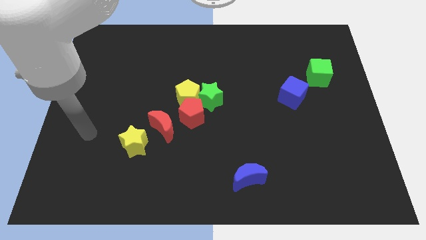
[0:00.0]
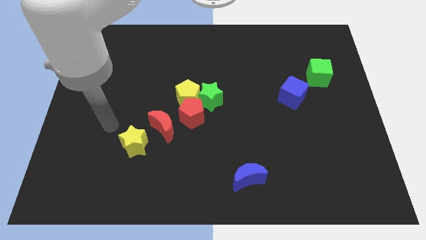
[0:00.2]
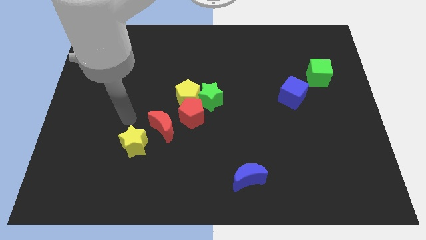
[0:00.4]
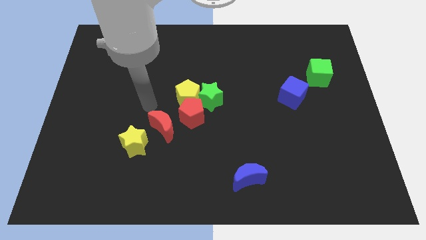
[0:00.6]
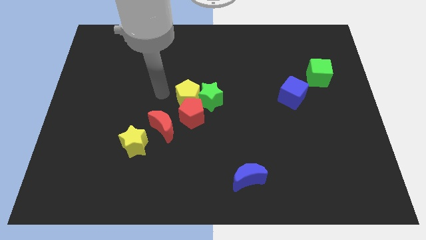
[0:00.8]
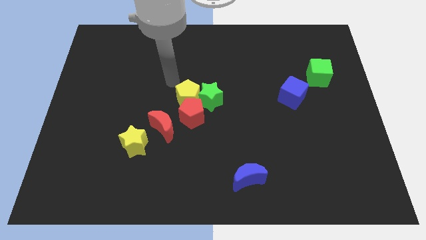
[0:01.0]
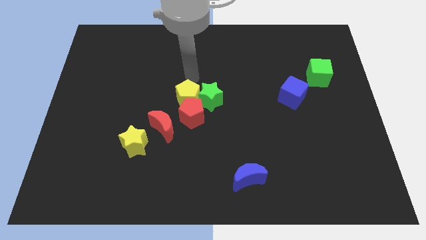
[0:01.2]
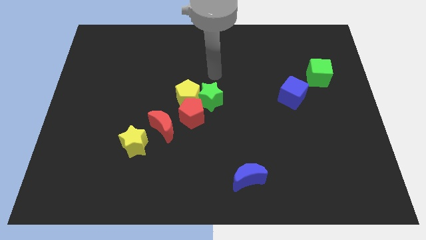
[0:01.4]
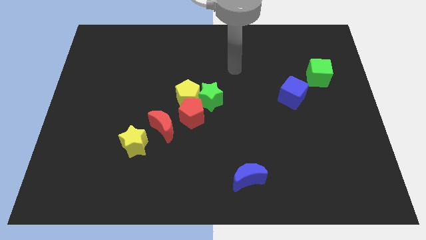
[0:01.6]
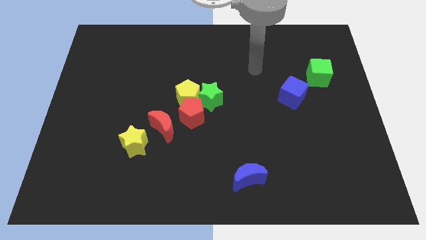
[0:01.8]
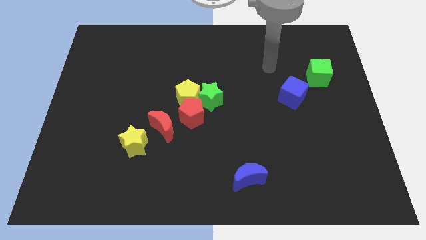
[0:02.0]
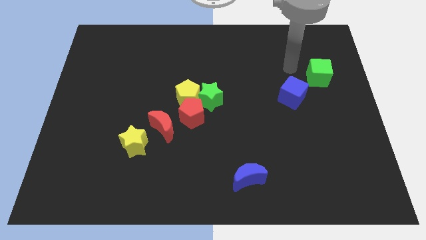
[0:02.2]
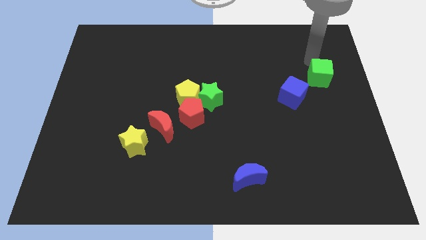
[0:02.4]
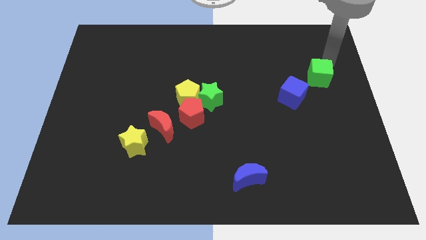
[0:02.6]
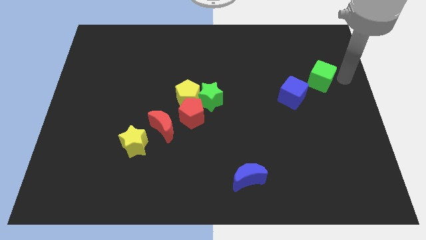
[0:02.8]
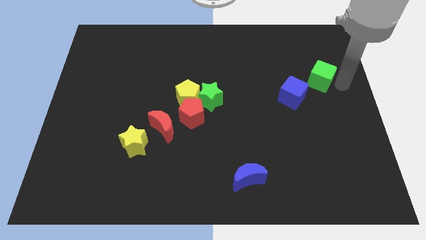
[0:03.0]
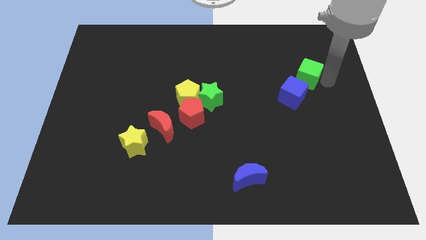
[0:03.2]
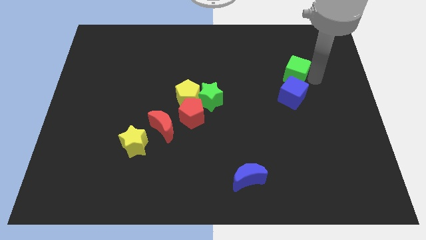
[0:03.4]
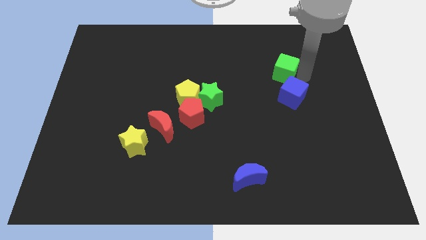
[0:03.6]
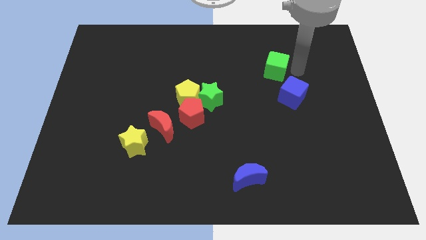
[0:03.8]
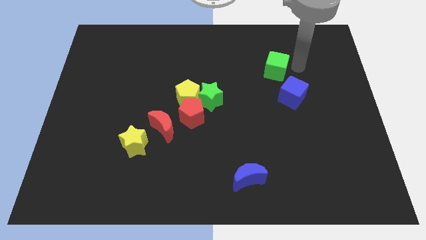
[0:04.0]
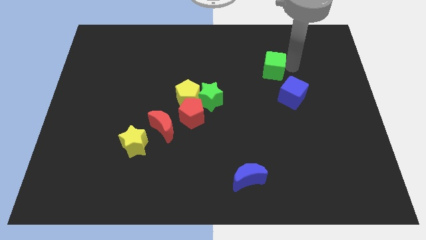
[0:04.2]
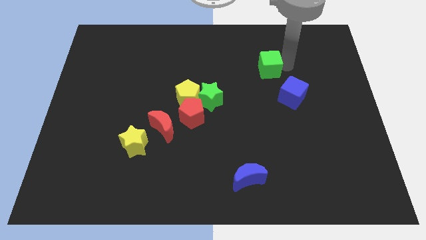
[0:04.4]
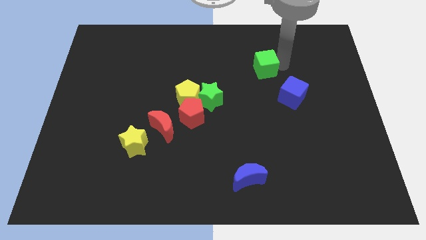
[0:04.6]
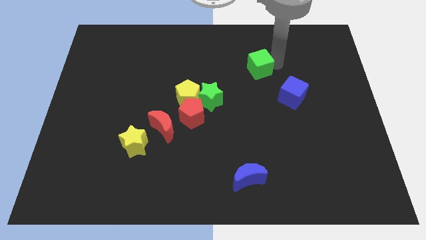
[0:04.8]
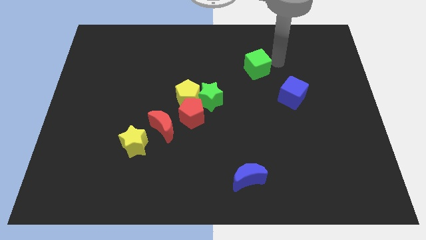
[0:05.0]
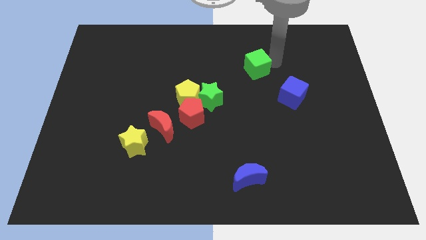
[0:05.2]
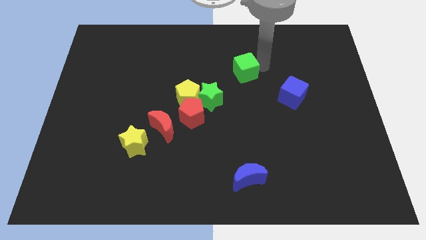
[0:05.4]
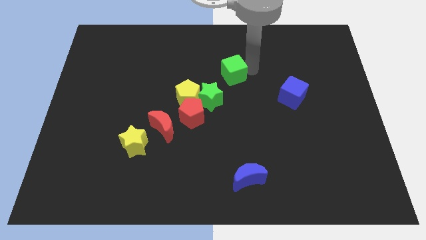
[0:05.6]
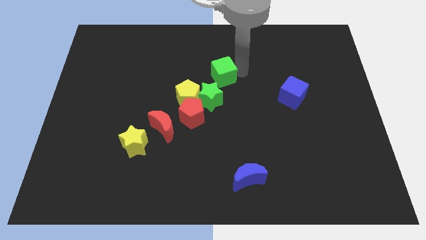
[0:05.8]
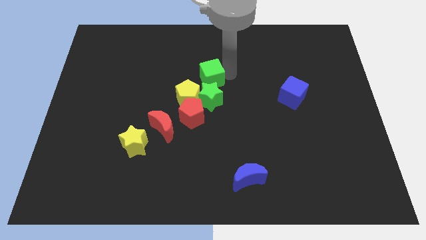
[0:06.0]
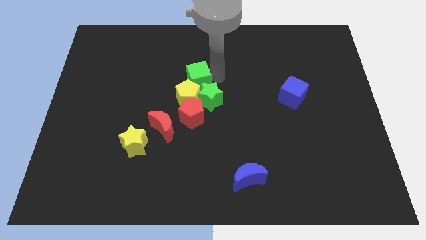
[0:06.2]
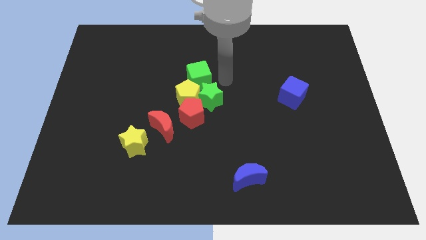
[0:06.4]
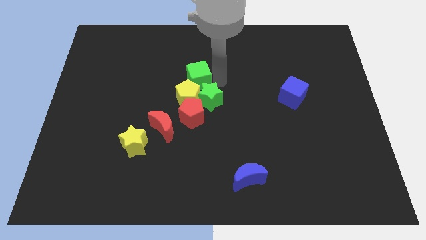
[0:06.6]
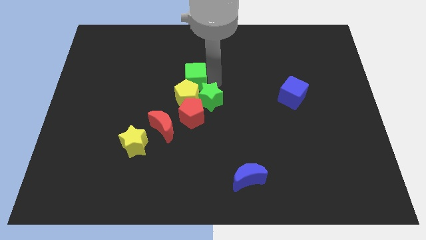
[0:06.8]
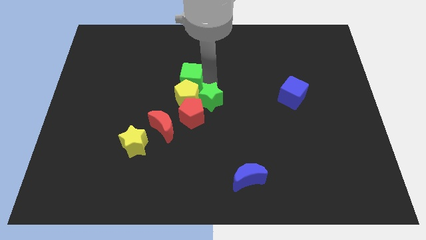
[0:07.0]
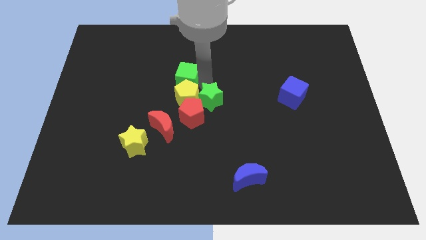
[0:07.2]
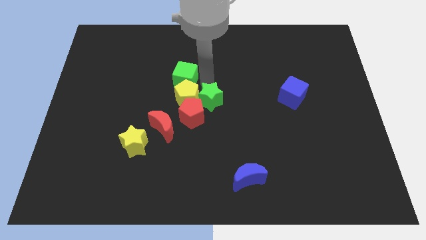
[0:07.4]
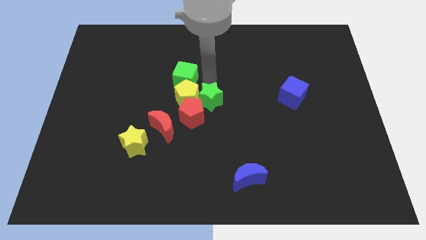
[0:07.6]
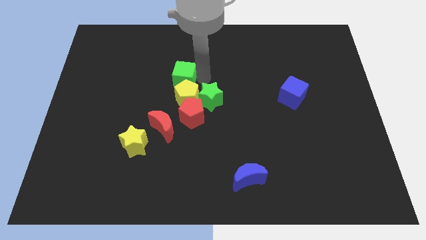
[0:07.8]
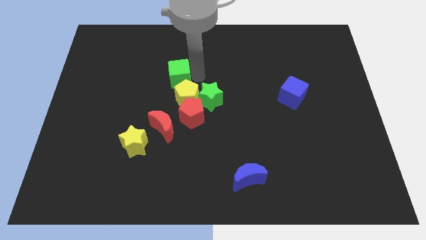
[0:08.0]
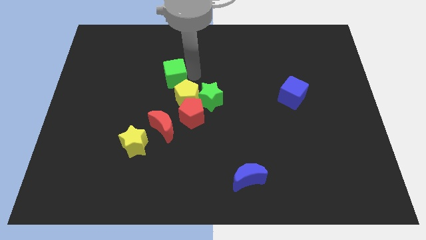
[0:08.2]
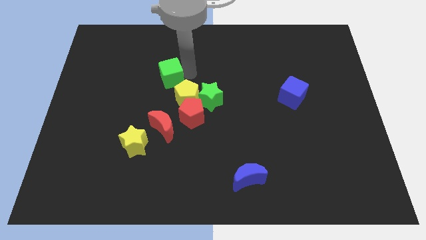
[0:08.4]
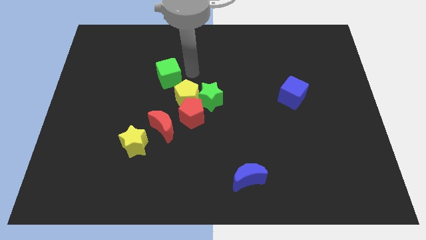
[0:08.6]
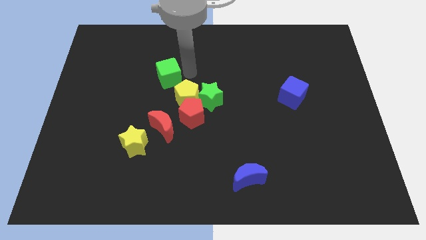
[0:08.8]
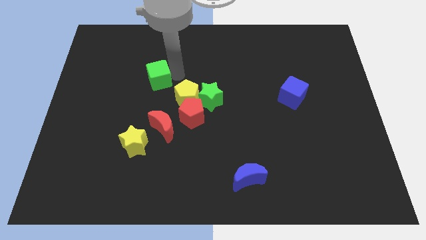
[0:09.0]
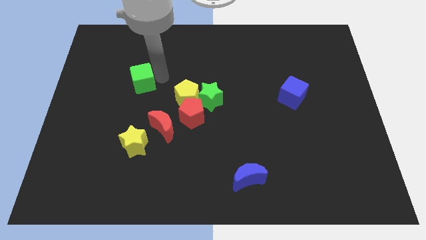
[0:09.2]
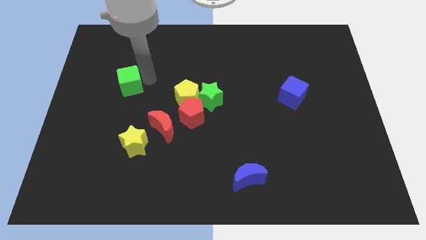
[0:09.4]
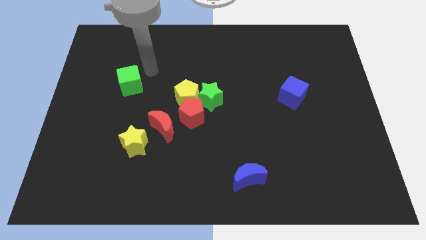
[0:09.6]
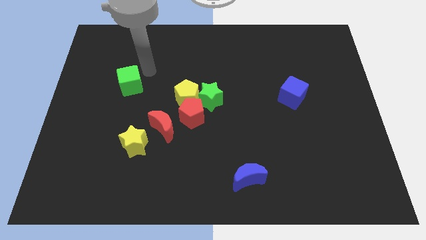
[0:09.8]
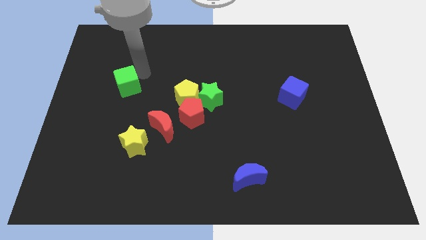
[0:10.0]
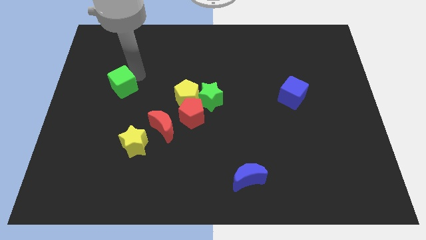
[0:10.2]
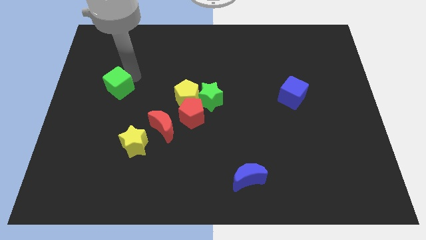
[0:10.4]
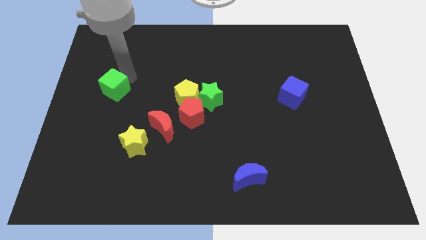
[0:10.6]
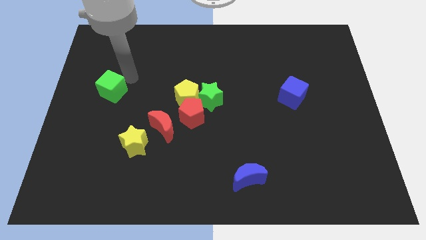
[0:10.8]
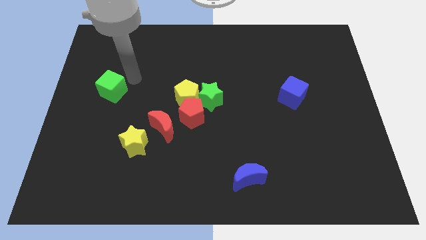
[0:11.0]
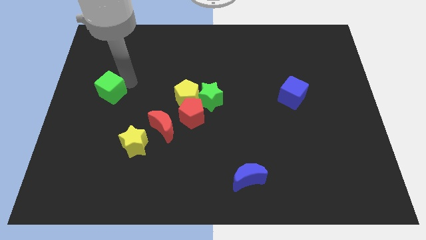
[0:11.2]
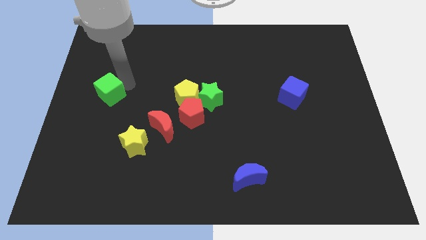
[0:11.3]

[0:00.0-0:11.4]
move the green cube to the left side

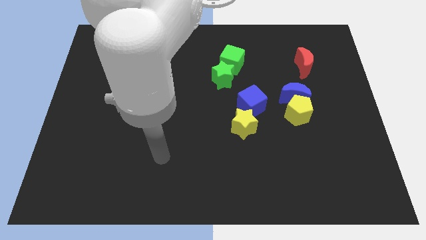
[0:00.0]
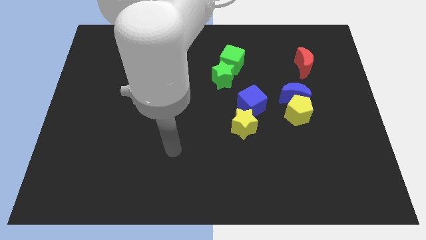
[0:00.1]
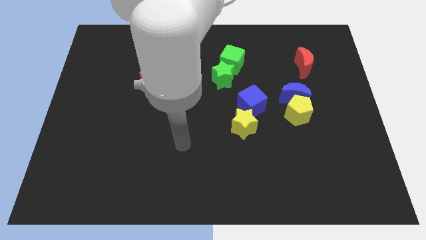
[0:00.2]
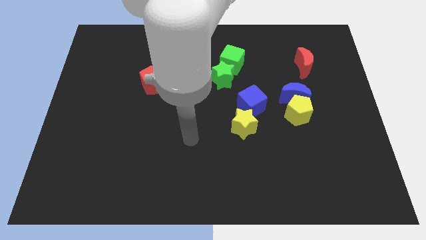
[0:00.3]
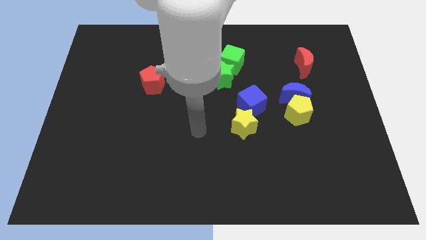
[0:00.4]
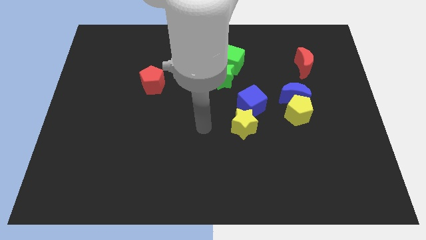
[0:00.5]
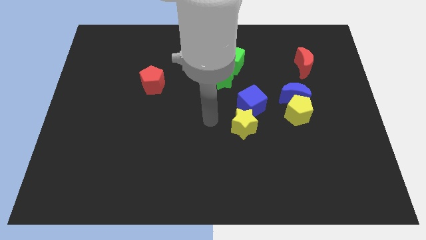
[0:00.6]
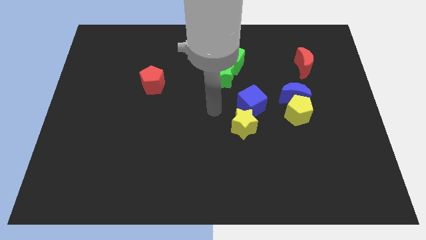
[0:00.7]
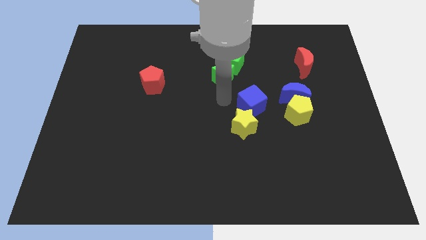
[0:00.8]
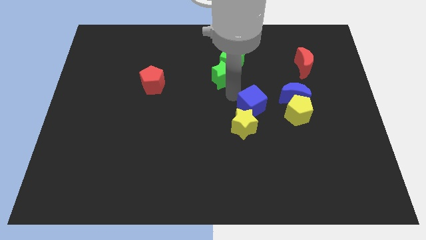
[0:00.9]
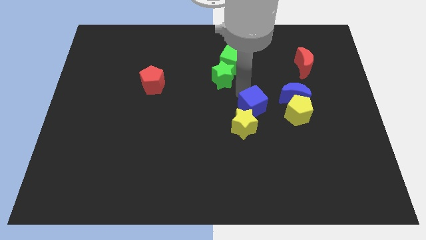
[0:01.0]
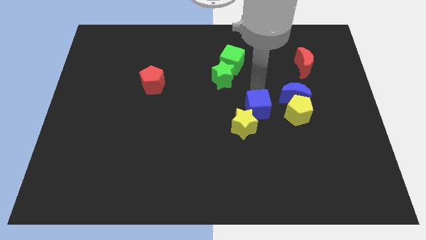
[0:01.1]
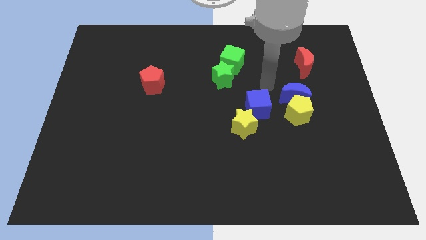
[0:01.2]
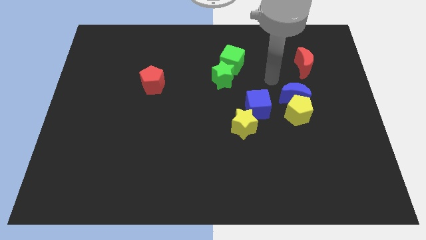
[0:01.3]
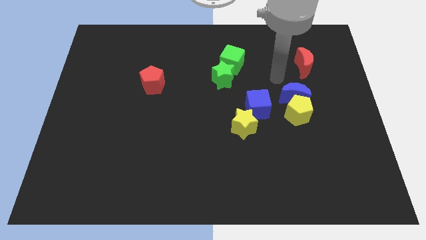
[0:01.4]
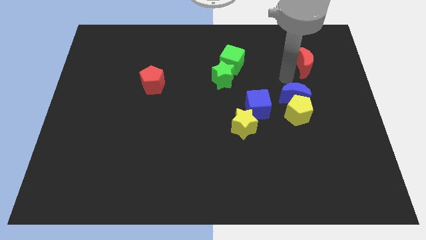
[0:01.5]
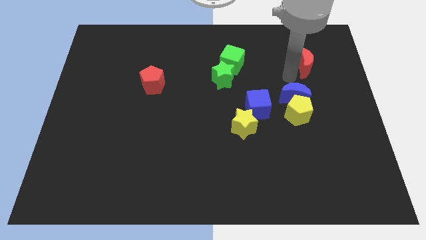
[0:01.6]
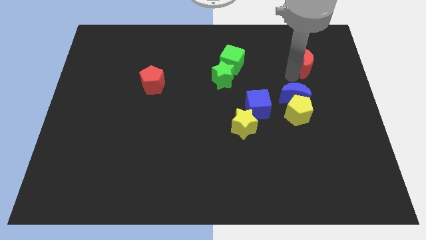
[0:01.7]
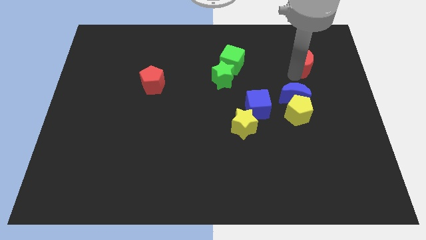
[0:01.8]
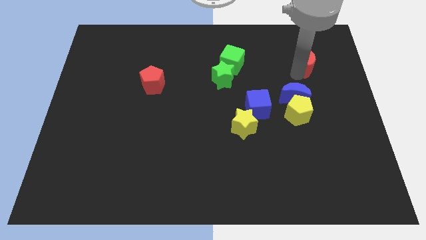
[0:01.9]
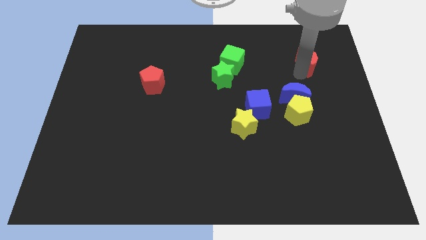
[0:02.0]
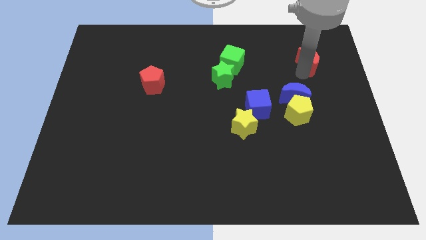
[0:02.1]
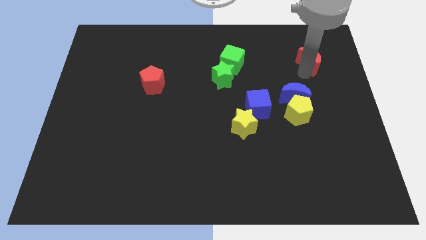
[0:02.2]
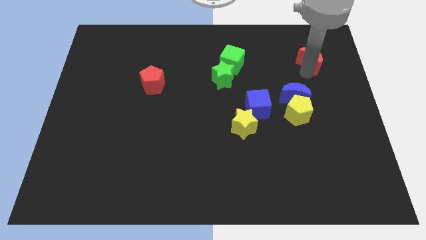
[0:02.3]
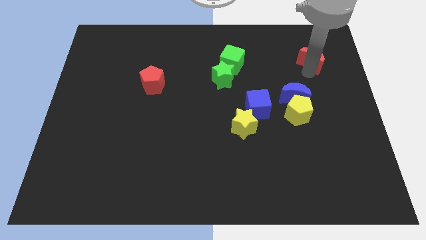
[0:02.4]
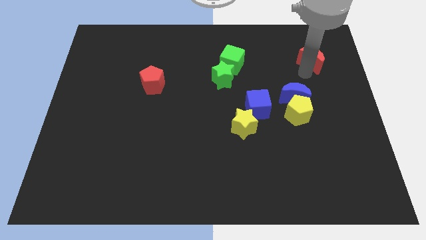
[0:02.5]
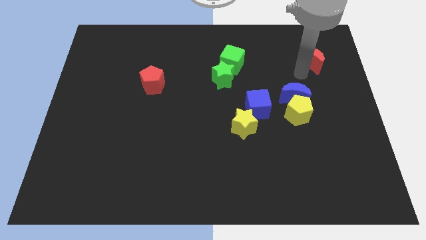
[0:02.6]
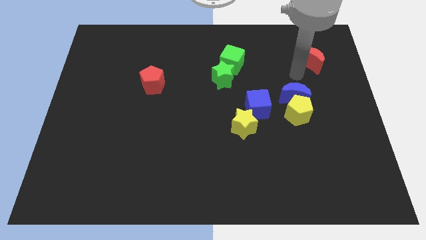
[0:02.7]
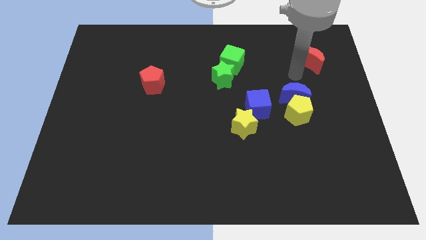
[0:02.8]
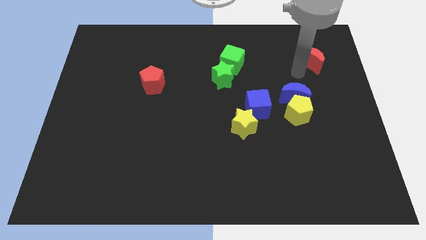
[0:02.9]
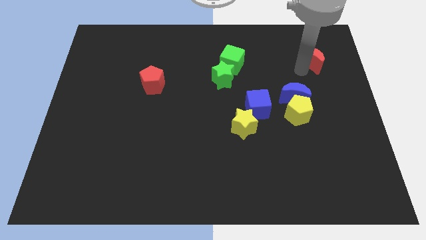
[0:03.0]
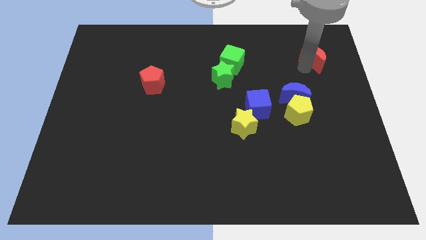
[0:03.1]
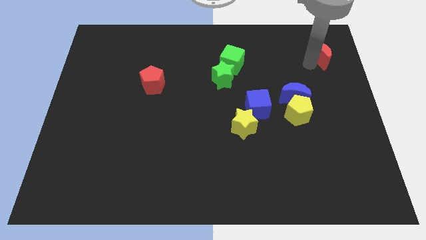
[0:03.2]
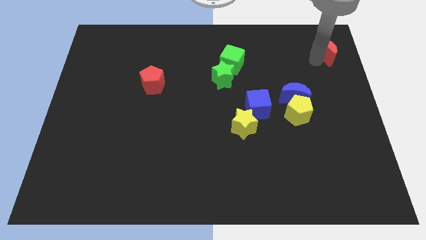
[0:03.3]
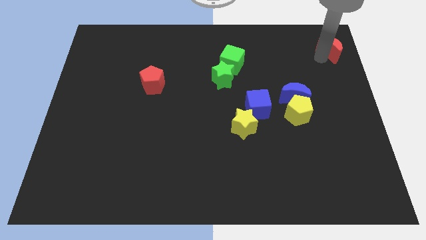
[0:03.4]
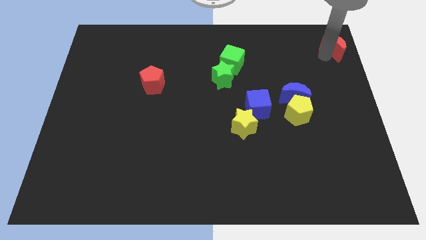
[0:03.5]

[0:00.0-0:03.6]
put the red moon to the upper right corner
